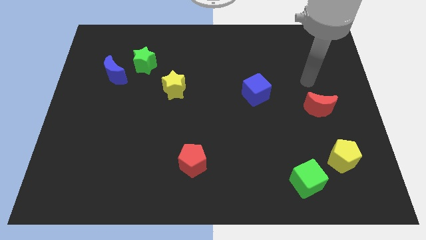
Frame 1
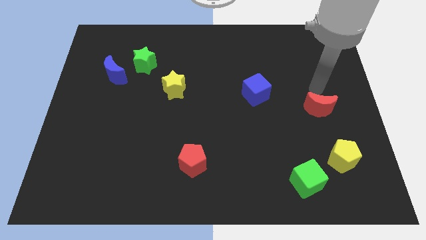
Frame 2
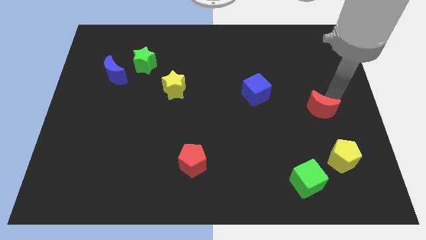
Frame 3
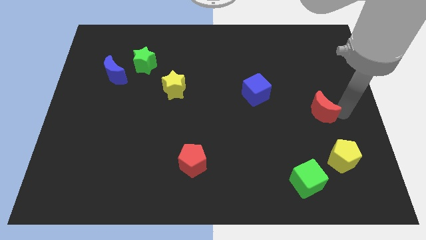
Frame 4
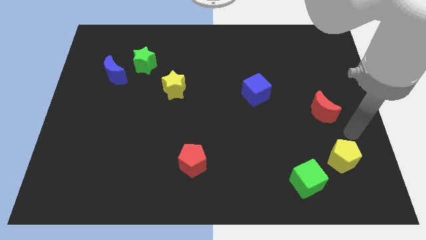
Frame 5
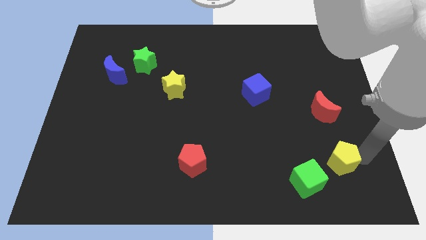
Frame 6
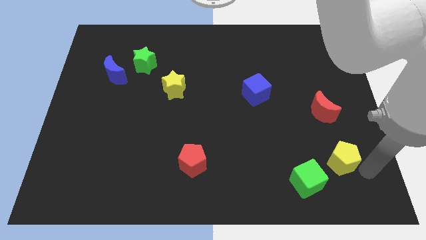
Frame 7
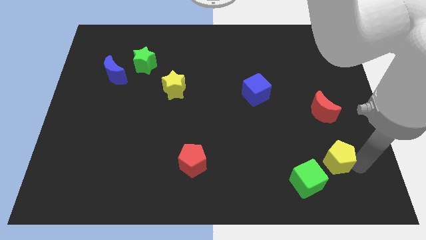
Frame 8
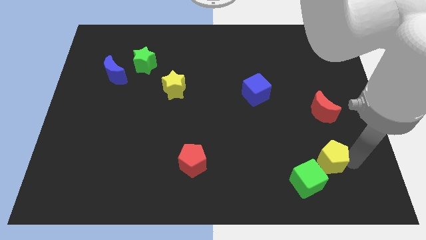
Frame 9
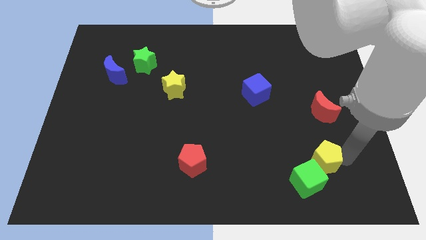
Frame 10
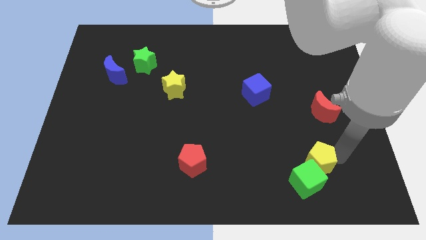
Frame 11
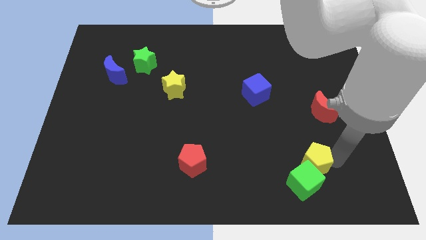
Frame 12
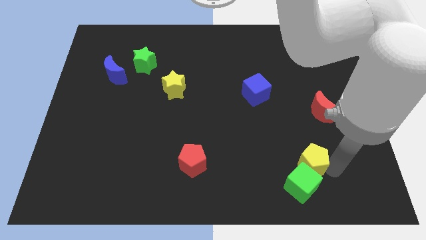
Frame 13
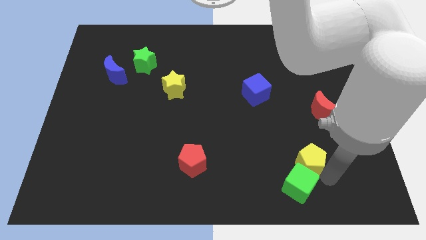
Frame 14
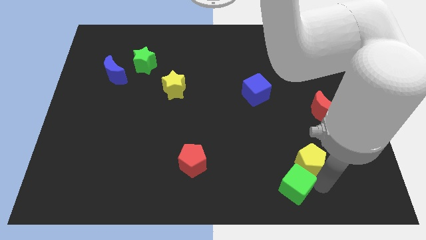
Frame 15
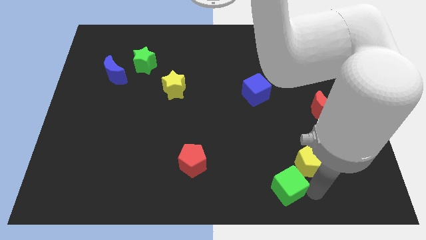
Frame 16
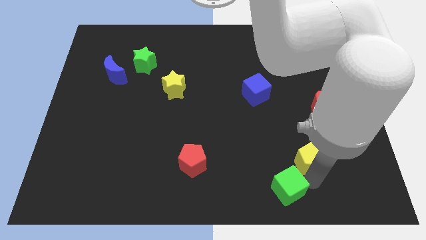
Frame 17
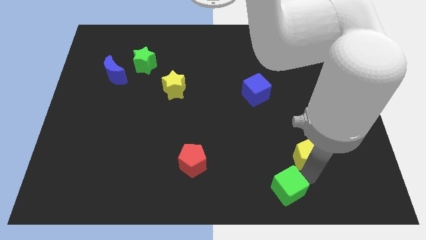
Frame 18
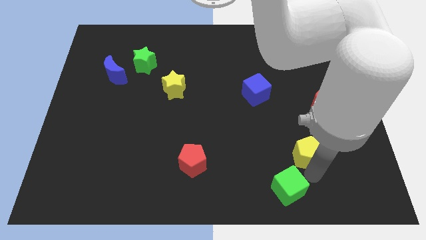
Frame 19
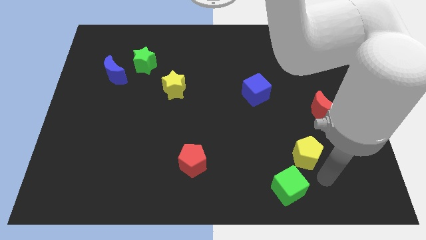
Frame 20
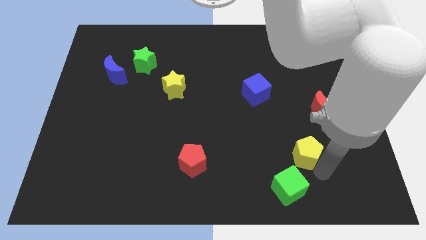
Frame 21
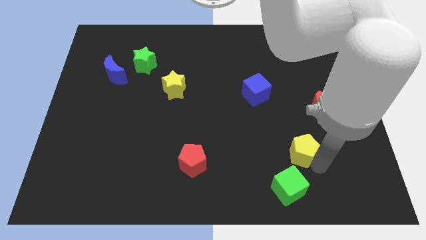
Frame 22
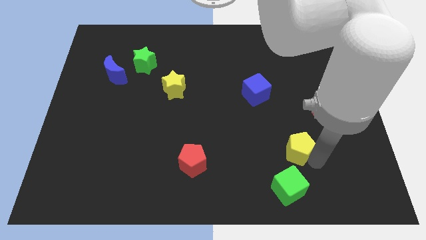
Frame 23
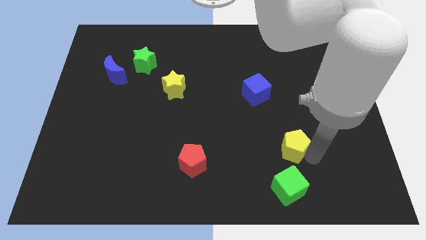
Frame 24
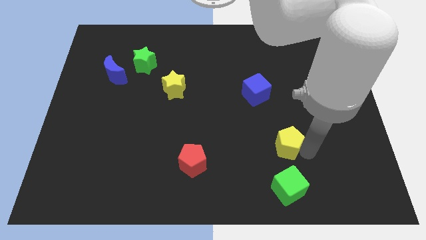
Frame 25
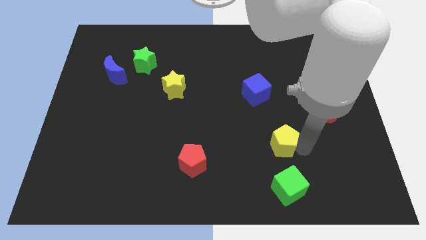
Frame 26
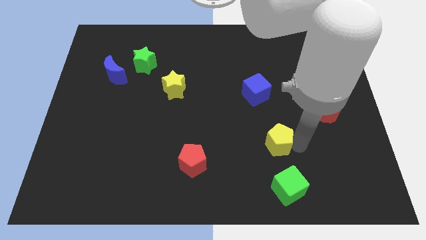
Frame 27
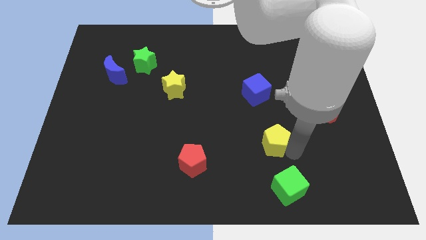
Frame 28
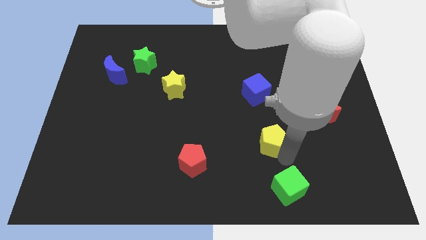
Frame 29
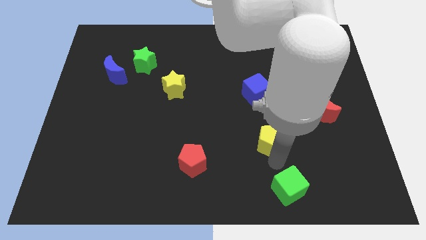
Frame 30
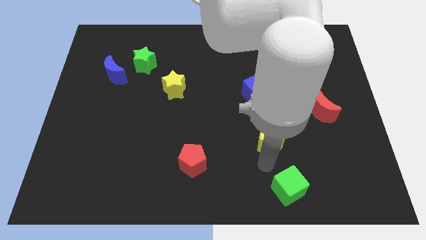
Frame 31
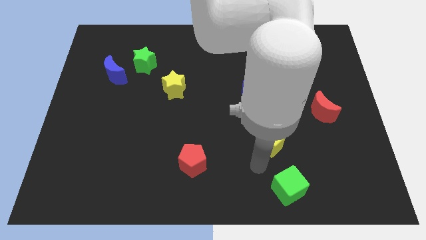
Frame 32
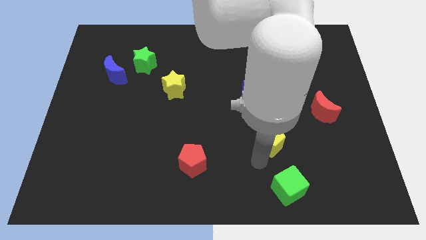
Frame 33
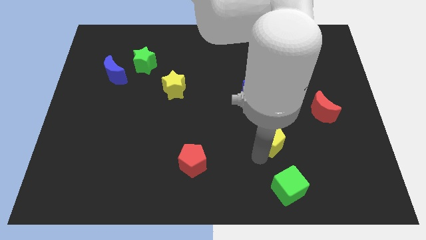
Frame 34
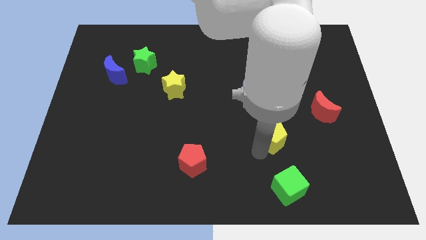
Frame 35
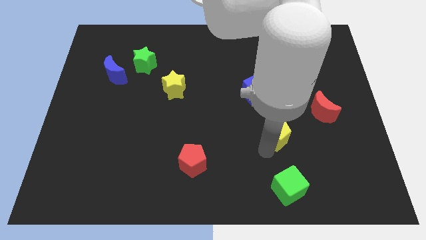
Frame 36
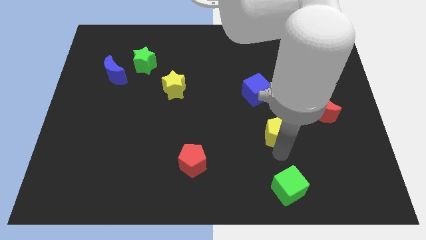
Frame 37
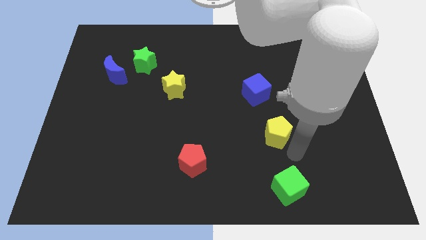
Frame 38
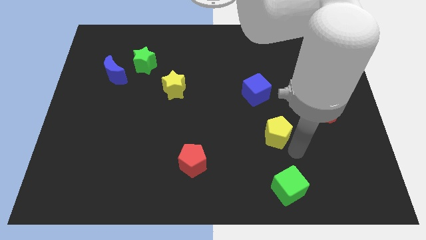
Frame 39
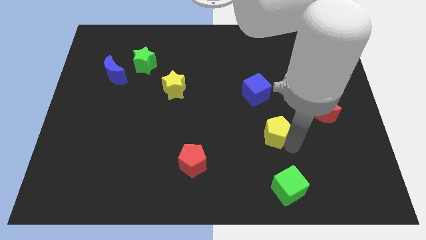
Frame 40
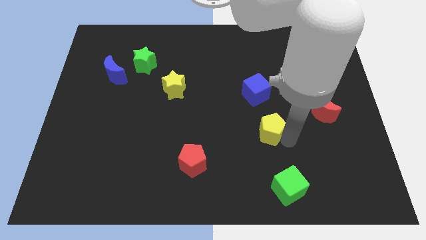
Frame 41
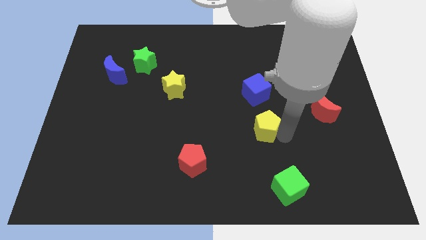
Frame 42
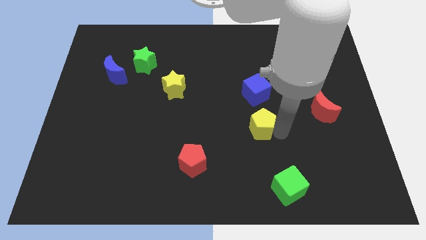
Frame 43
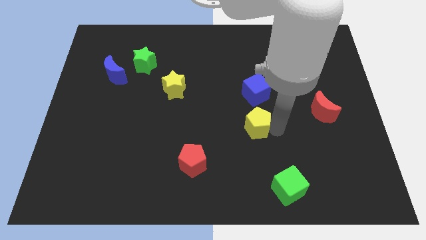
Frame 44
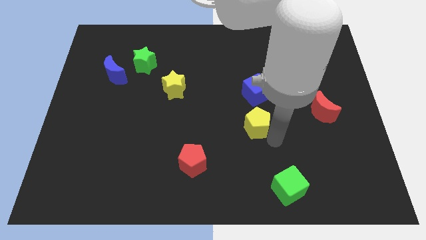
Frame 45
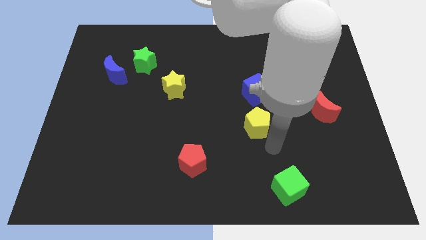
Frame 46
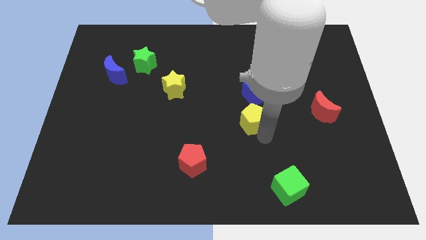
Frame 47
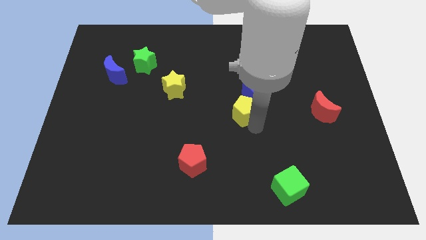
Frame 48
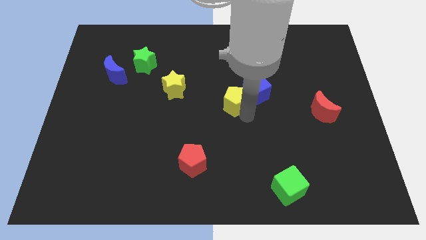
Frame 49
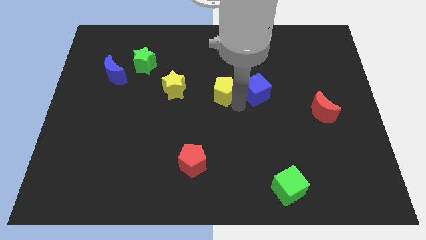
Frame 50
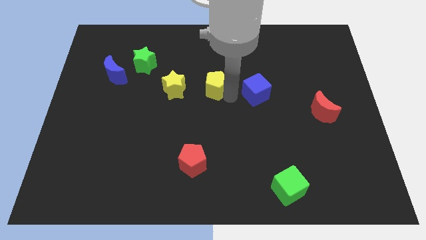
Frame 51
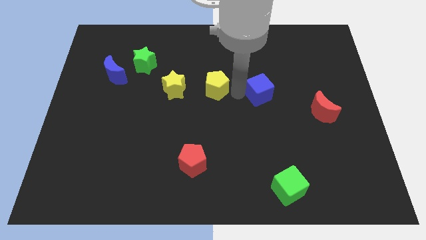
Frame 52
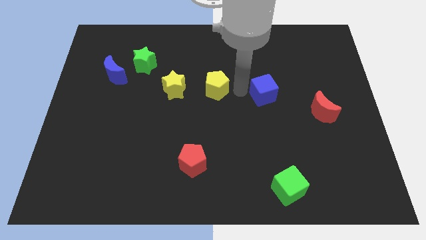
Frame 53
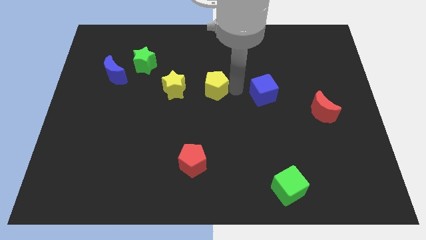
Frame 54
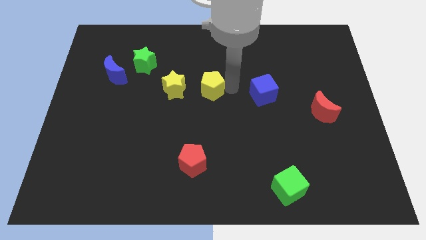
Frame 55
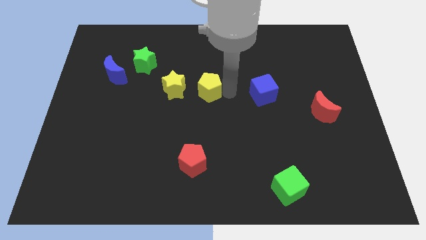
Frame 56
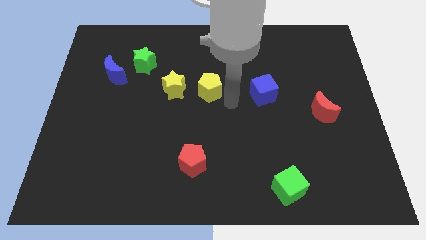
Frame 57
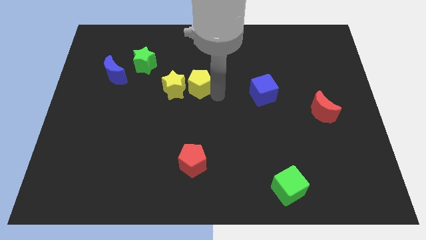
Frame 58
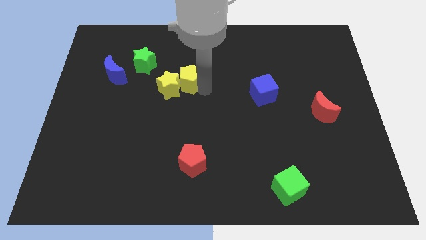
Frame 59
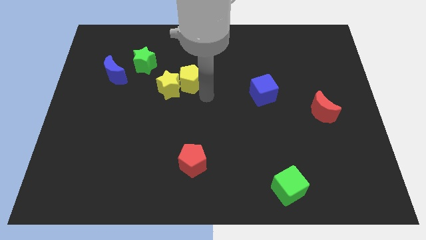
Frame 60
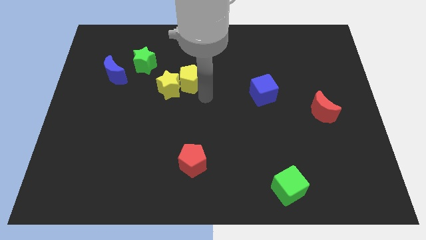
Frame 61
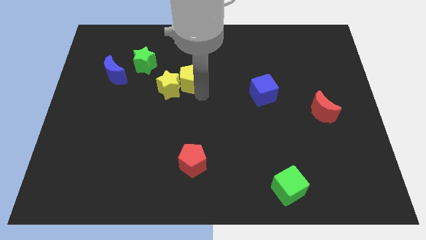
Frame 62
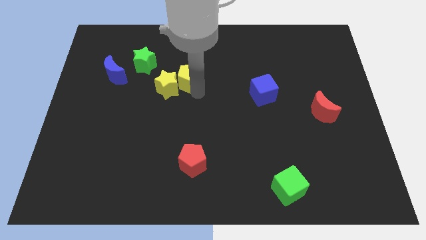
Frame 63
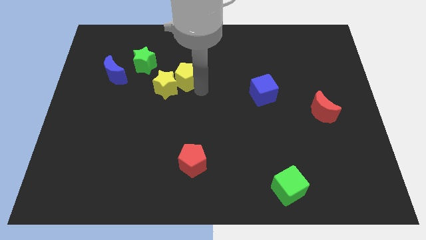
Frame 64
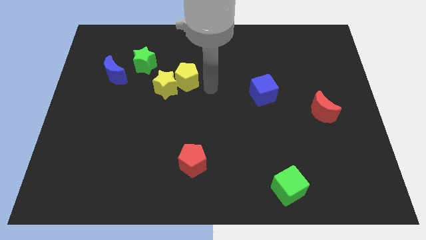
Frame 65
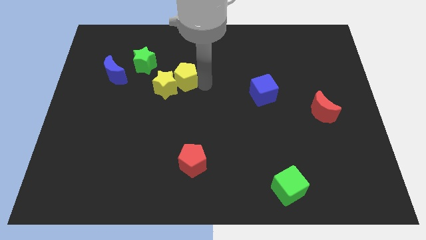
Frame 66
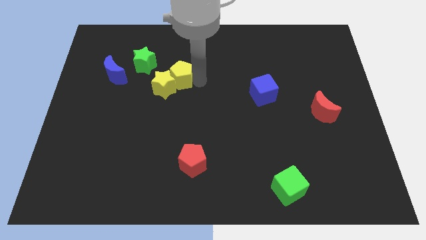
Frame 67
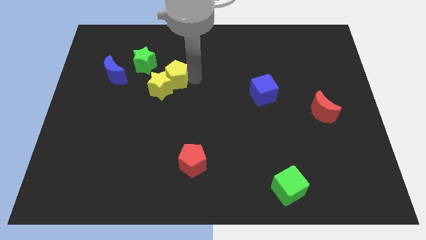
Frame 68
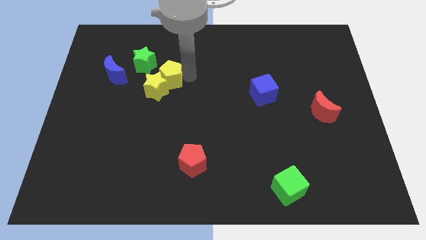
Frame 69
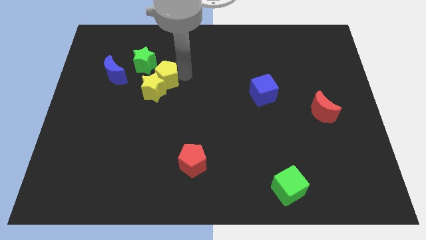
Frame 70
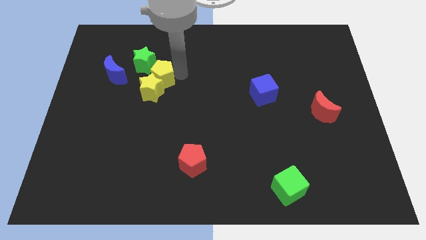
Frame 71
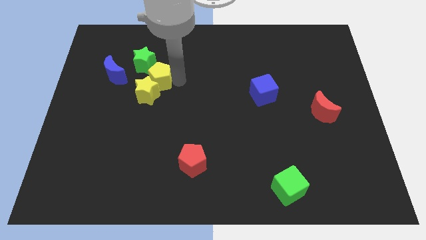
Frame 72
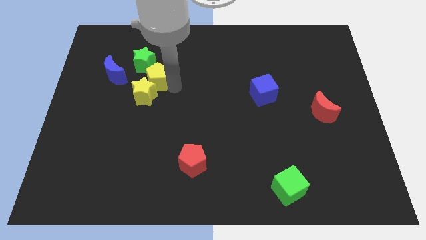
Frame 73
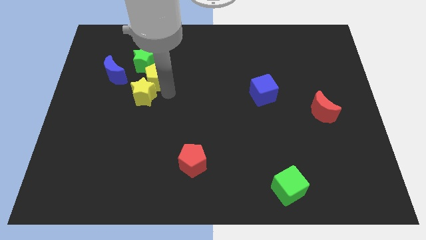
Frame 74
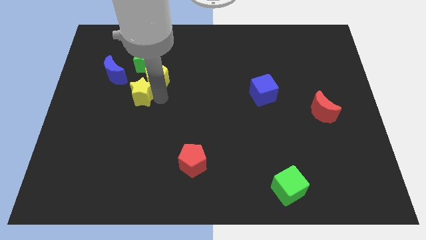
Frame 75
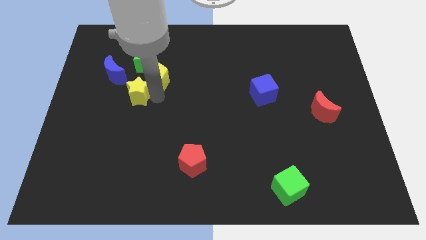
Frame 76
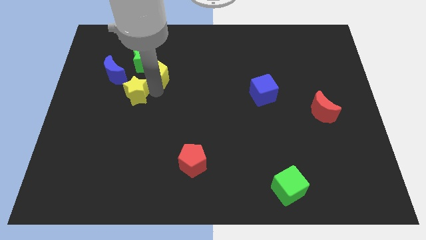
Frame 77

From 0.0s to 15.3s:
push the yellow pentagon next to the green star

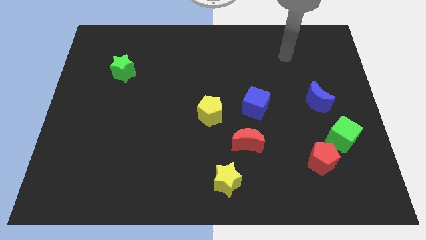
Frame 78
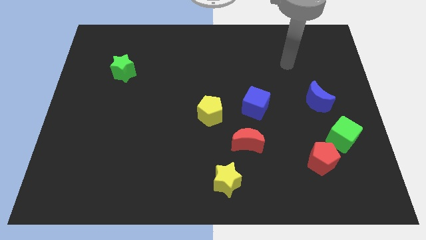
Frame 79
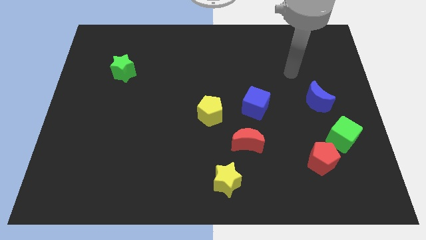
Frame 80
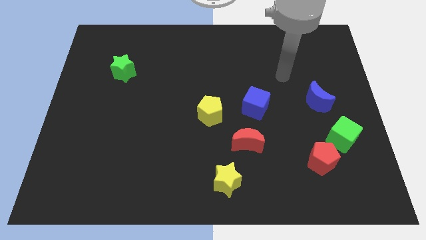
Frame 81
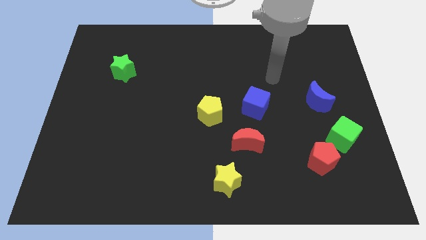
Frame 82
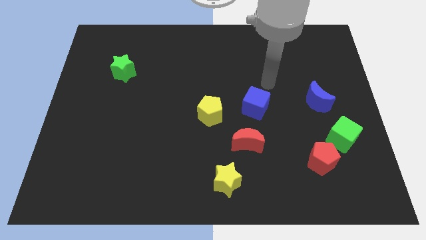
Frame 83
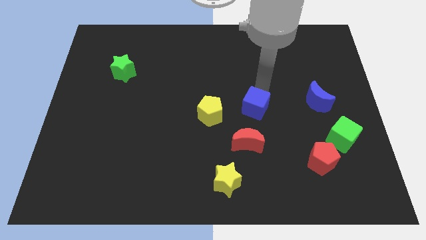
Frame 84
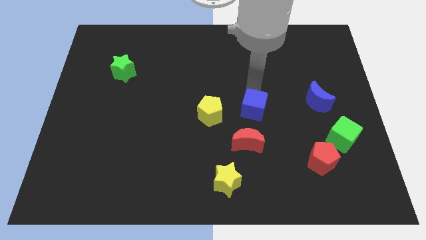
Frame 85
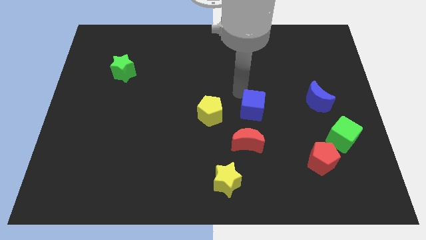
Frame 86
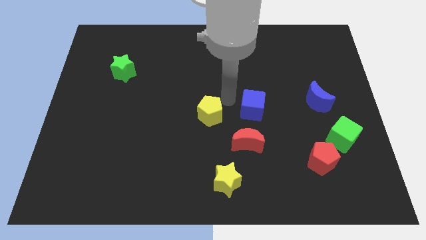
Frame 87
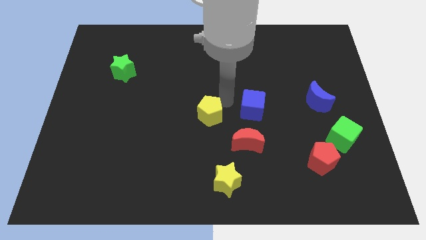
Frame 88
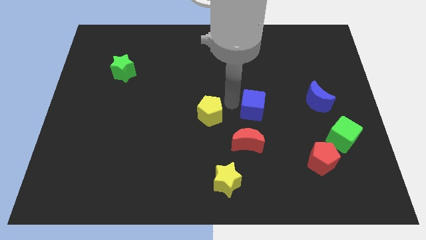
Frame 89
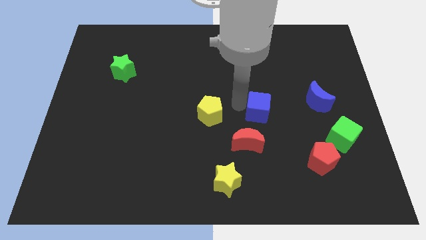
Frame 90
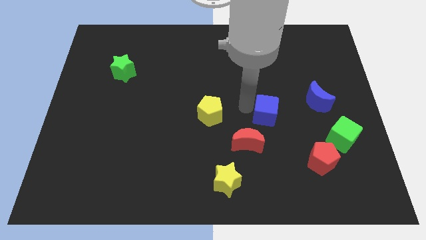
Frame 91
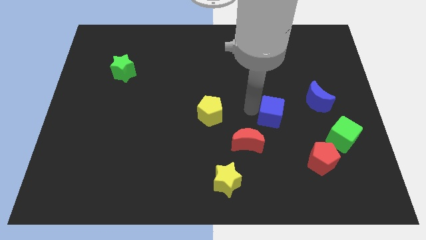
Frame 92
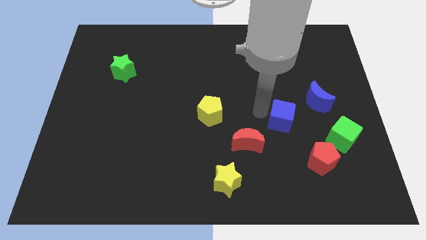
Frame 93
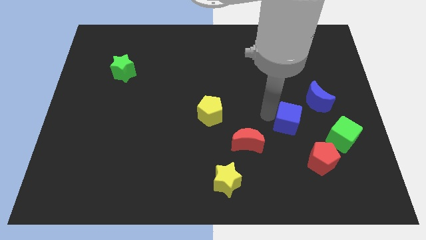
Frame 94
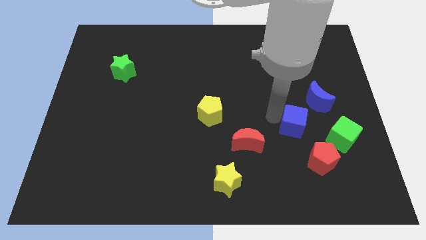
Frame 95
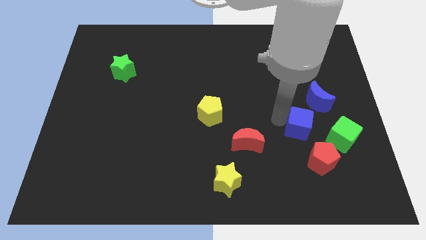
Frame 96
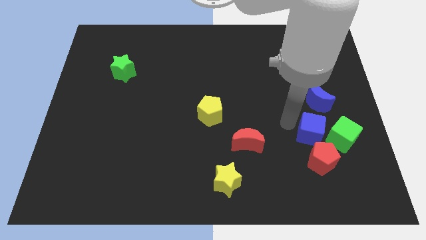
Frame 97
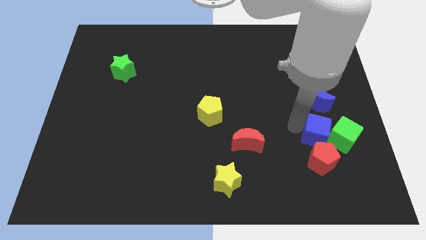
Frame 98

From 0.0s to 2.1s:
slide the blue cube towards the green cube
